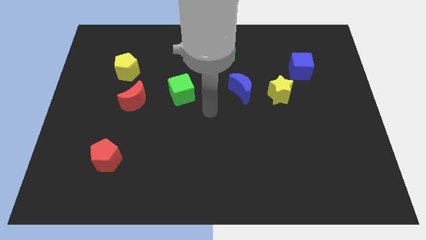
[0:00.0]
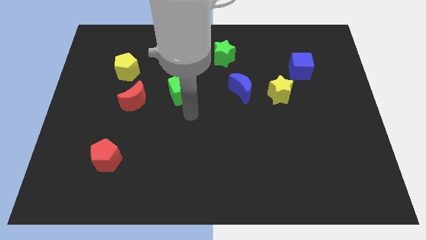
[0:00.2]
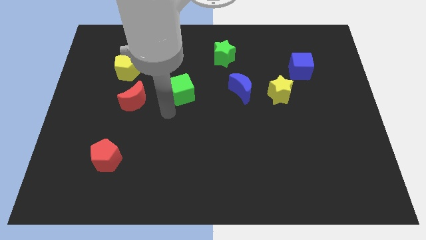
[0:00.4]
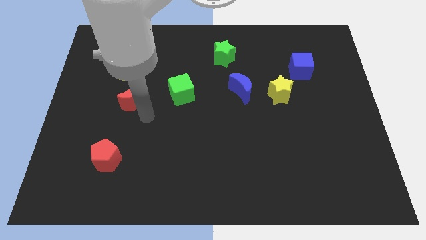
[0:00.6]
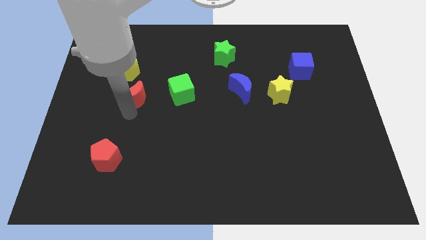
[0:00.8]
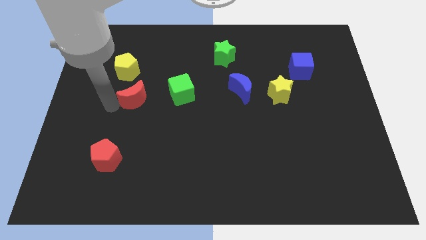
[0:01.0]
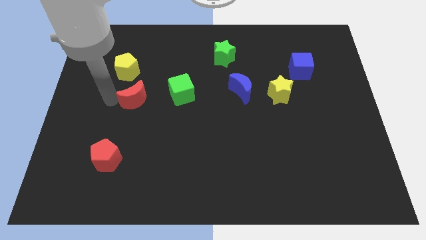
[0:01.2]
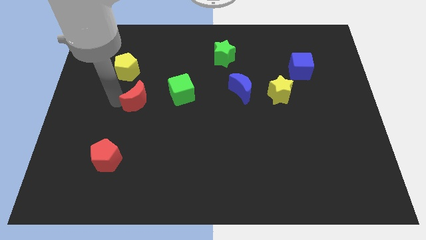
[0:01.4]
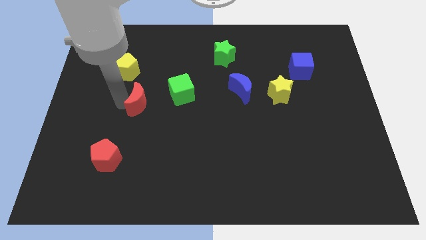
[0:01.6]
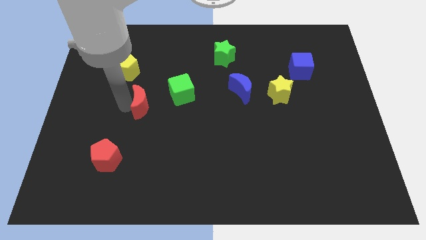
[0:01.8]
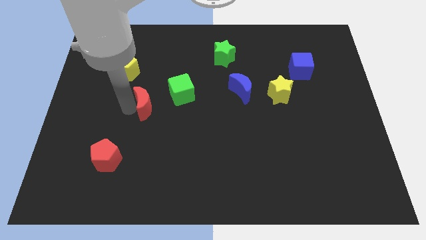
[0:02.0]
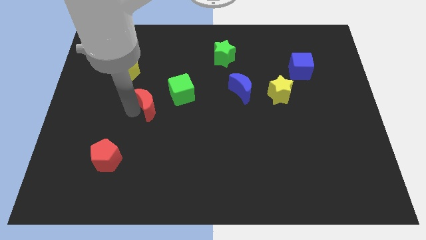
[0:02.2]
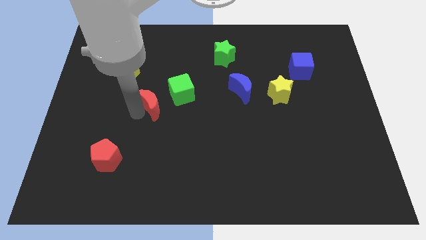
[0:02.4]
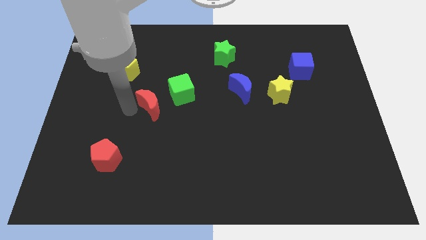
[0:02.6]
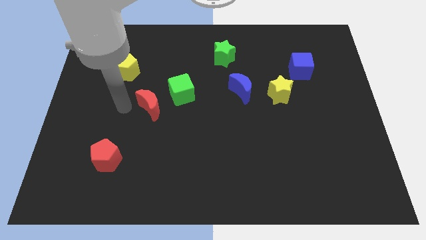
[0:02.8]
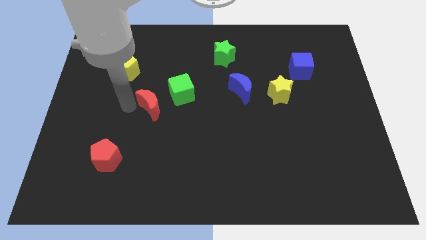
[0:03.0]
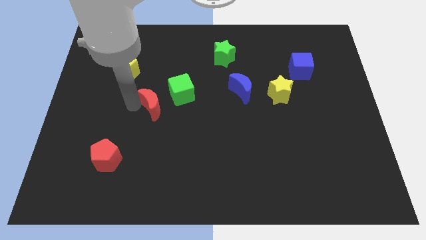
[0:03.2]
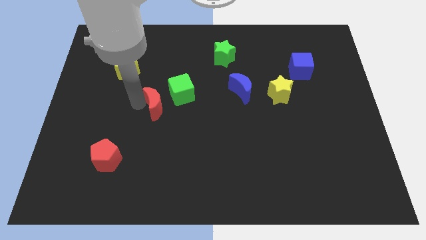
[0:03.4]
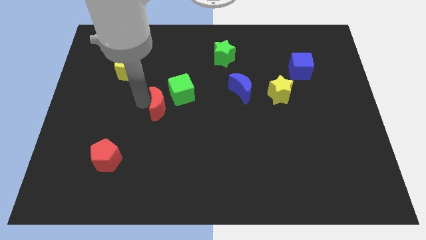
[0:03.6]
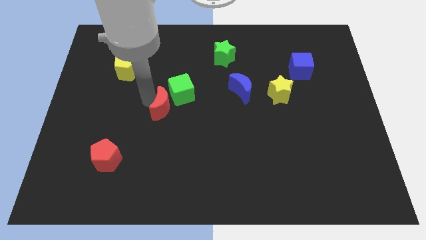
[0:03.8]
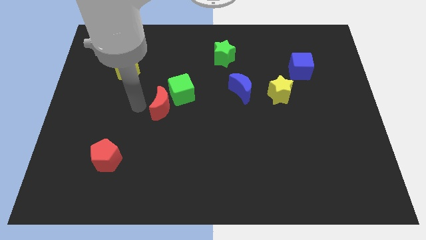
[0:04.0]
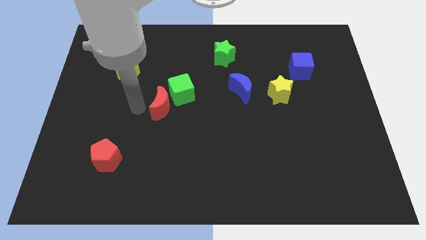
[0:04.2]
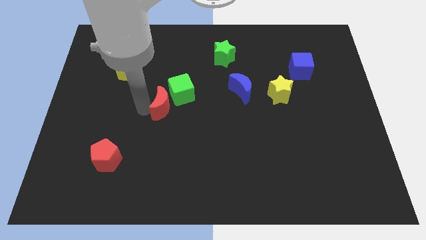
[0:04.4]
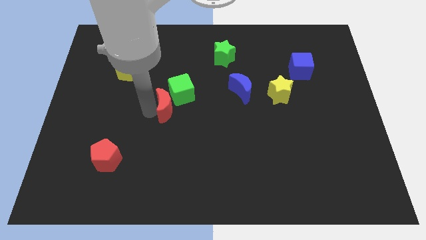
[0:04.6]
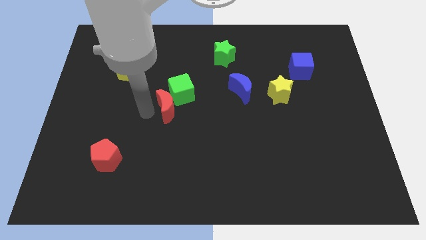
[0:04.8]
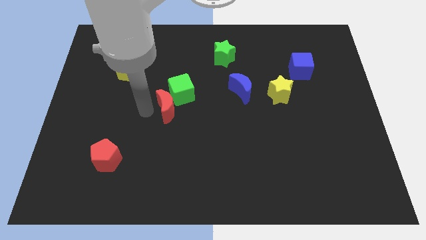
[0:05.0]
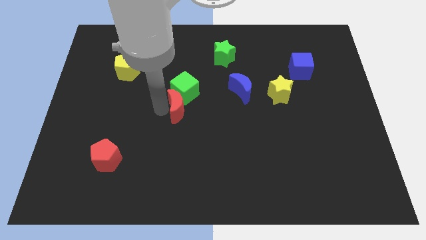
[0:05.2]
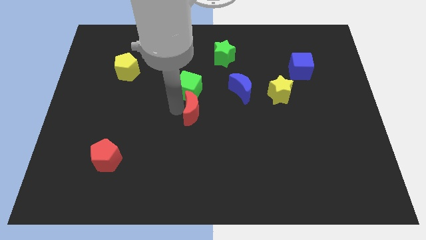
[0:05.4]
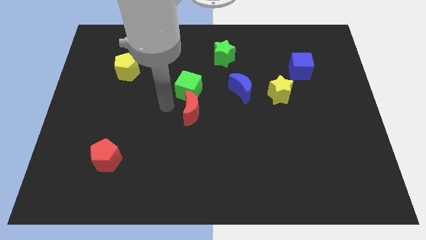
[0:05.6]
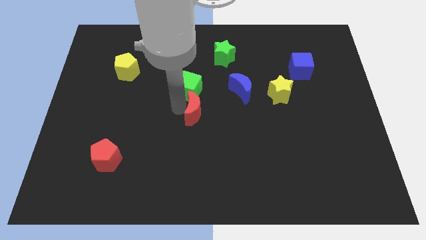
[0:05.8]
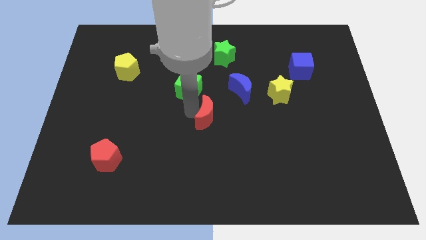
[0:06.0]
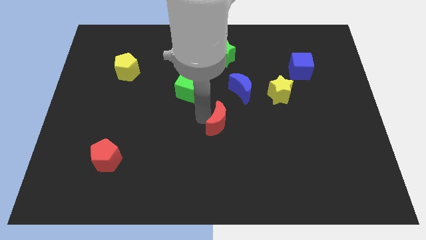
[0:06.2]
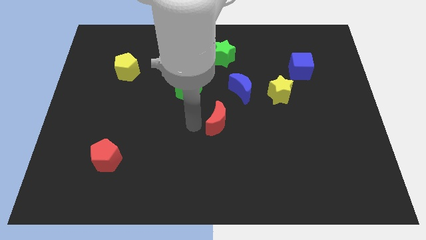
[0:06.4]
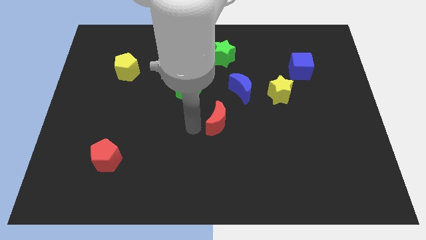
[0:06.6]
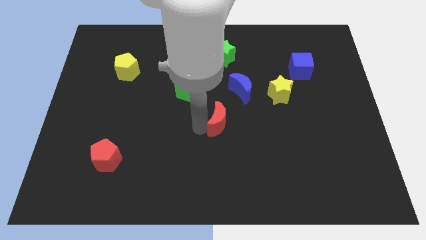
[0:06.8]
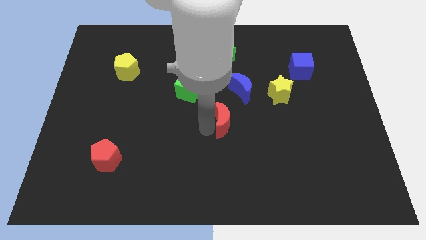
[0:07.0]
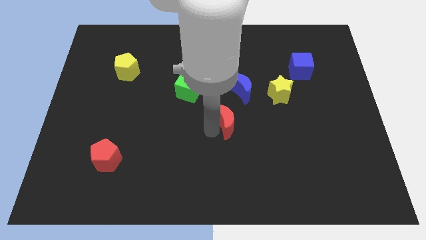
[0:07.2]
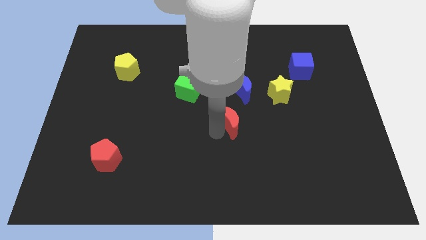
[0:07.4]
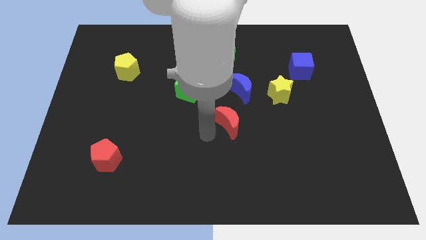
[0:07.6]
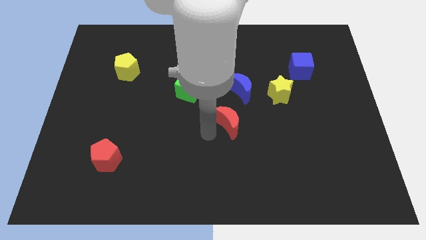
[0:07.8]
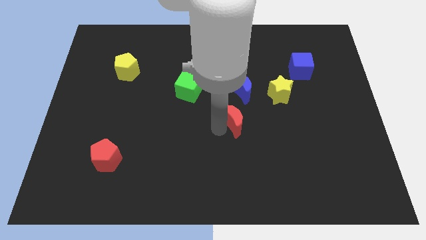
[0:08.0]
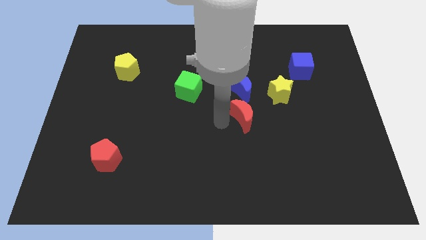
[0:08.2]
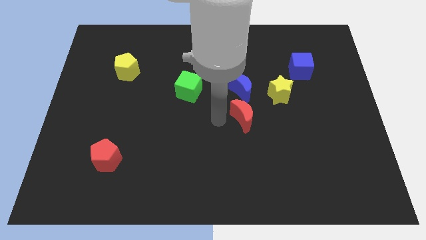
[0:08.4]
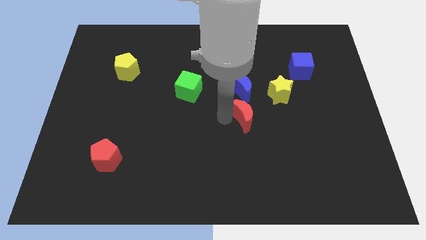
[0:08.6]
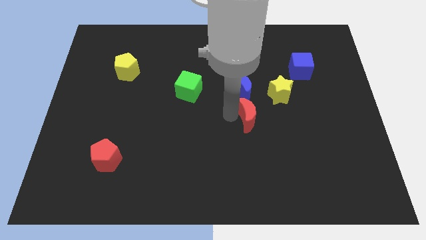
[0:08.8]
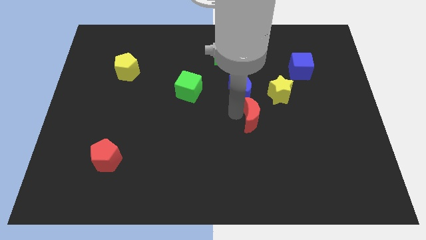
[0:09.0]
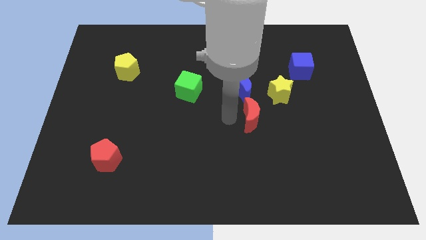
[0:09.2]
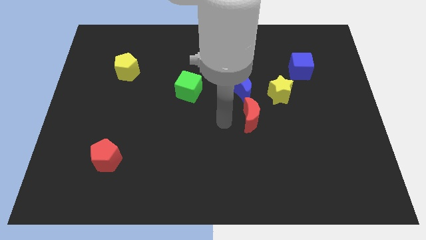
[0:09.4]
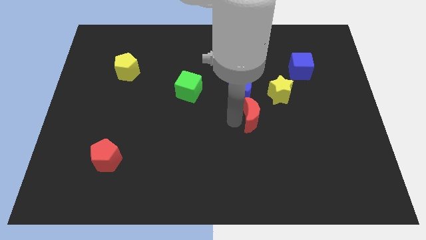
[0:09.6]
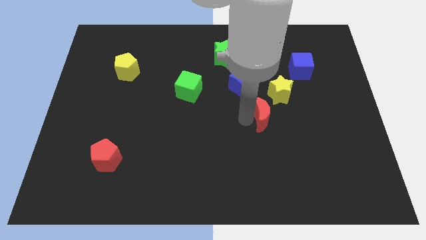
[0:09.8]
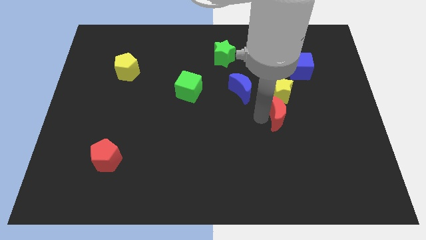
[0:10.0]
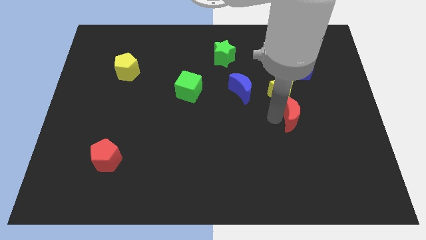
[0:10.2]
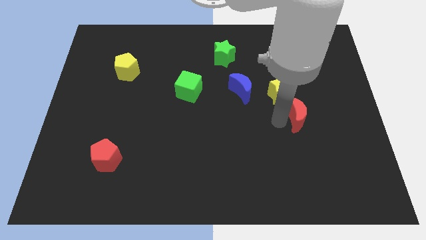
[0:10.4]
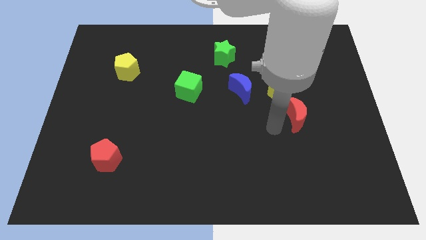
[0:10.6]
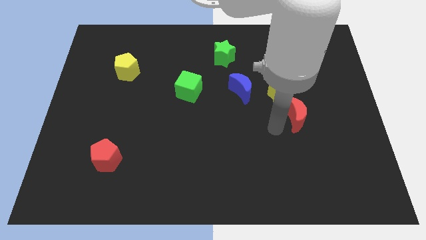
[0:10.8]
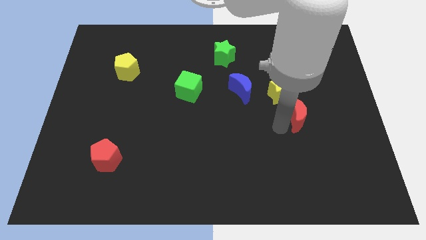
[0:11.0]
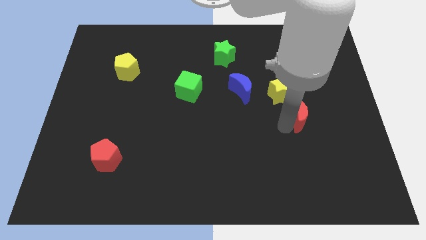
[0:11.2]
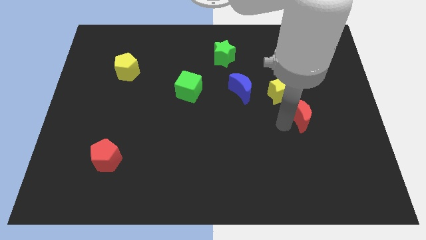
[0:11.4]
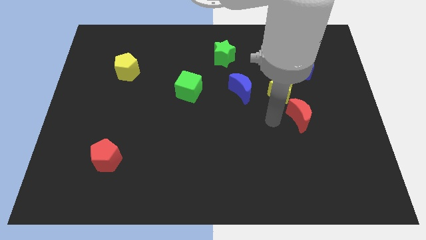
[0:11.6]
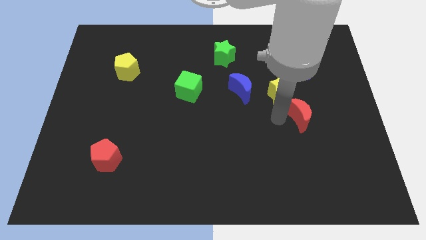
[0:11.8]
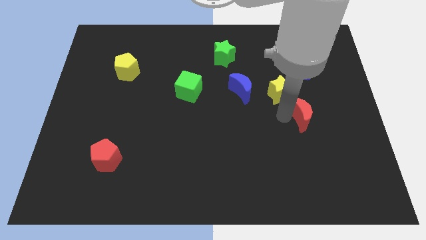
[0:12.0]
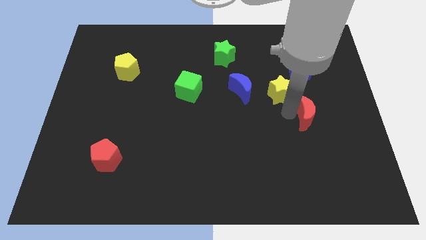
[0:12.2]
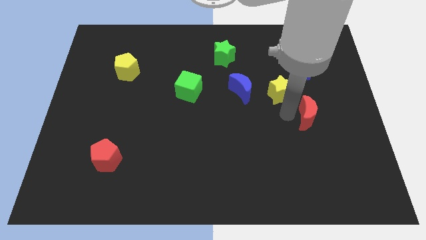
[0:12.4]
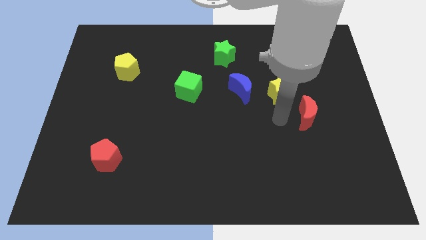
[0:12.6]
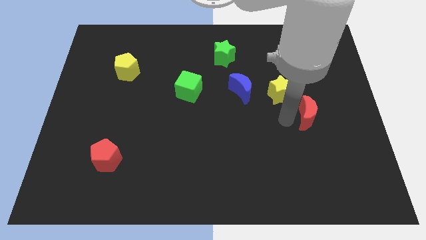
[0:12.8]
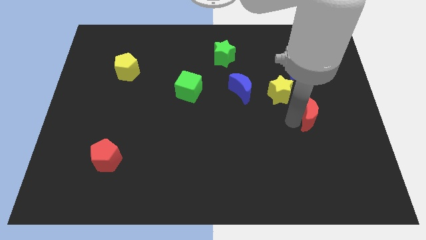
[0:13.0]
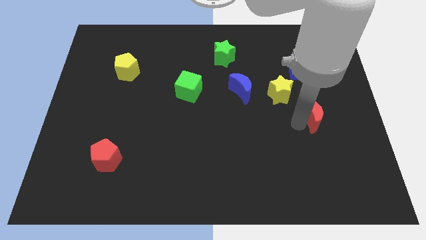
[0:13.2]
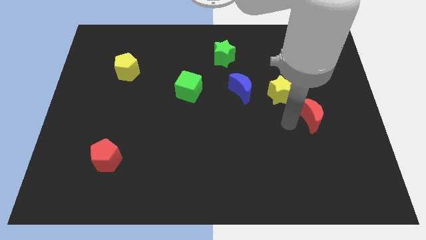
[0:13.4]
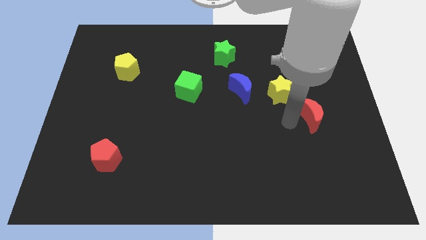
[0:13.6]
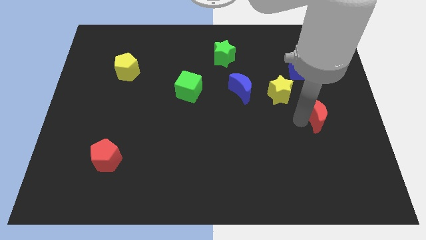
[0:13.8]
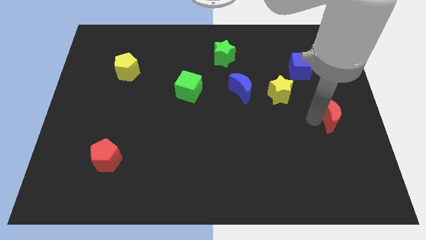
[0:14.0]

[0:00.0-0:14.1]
put the red moon to the center right
